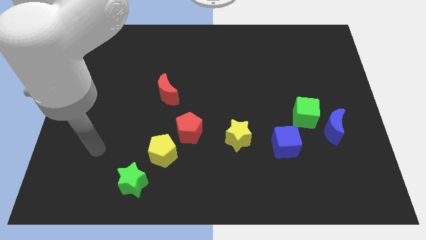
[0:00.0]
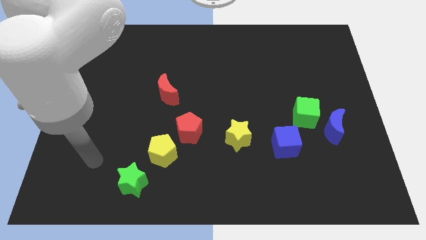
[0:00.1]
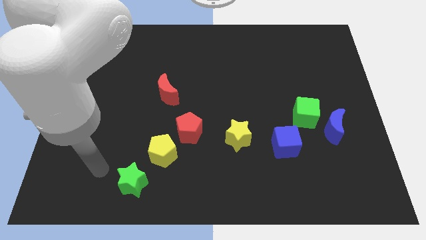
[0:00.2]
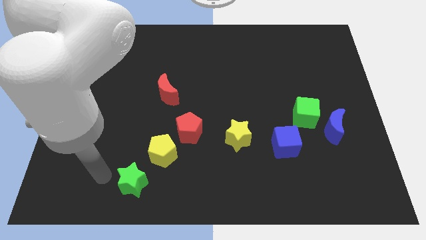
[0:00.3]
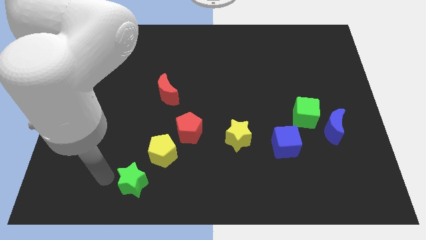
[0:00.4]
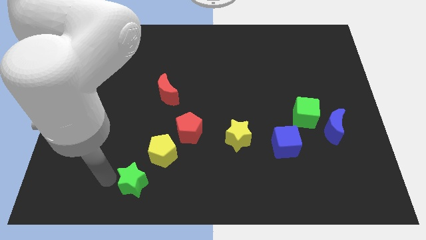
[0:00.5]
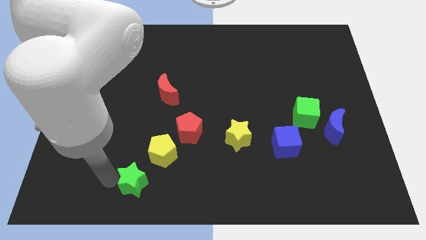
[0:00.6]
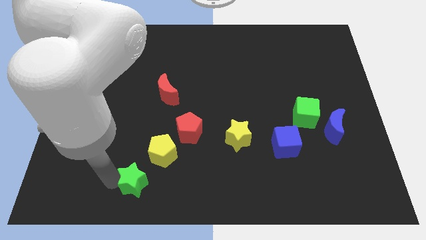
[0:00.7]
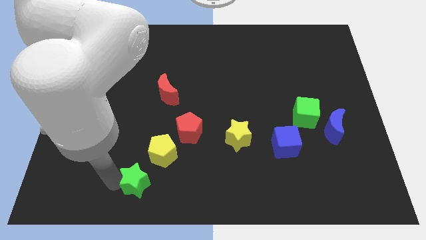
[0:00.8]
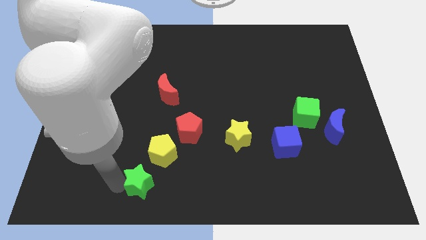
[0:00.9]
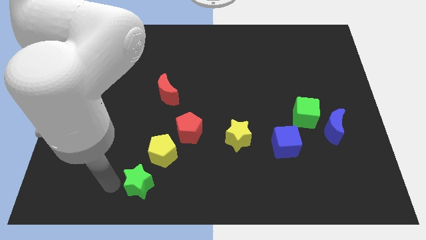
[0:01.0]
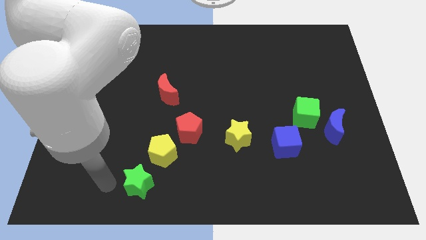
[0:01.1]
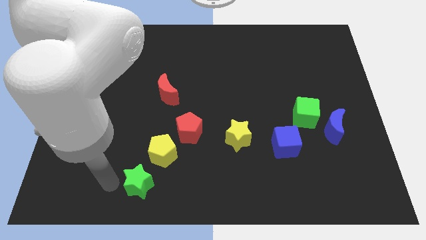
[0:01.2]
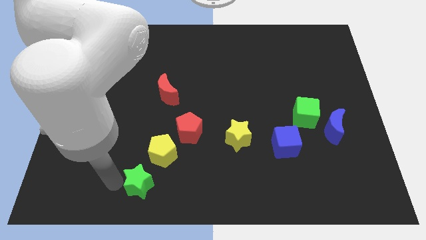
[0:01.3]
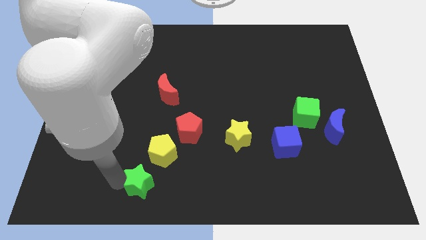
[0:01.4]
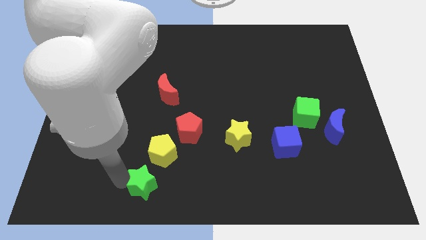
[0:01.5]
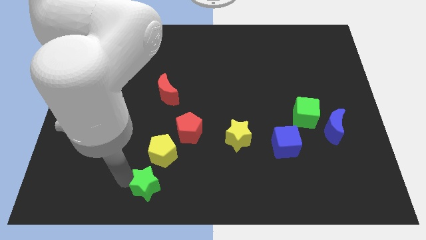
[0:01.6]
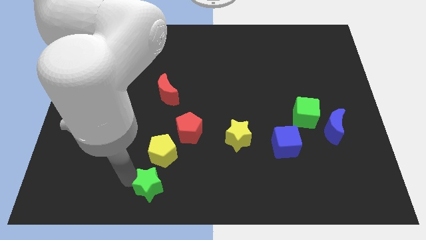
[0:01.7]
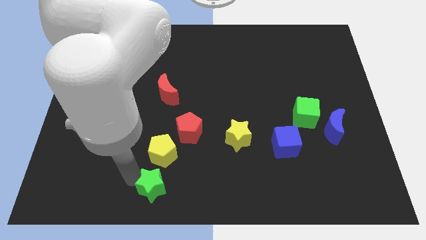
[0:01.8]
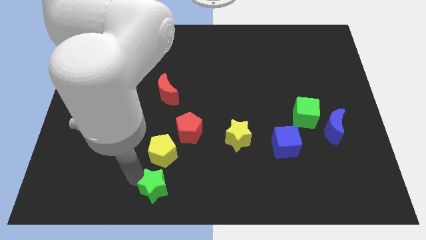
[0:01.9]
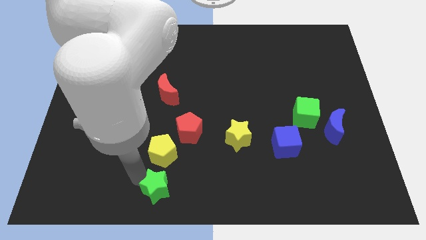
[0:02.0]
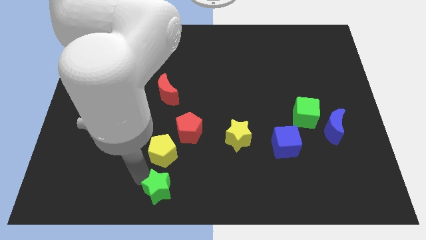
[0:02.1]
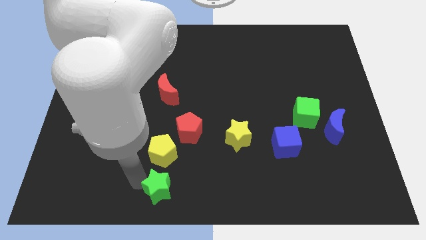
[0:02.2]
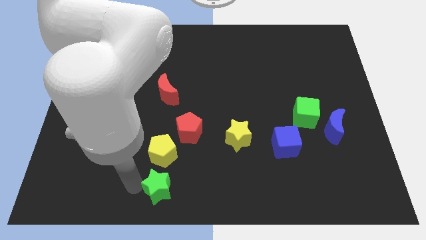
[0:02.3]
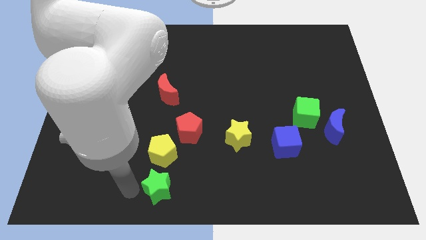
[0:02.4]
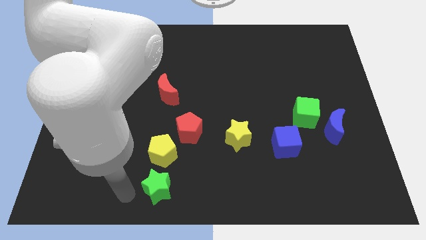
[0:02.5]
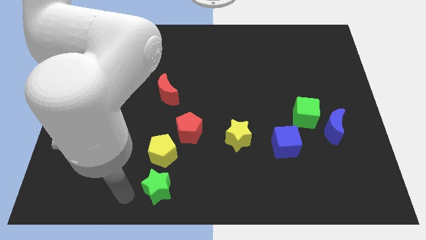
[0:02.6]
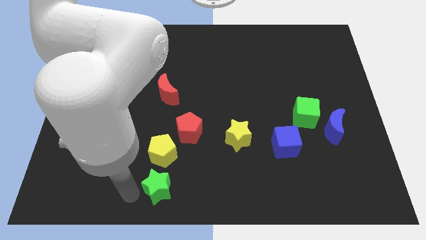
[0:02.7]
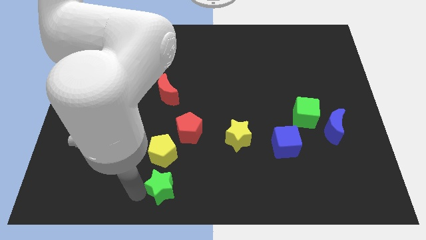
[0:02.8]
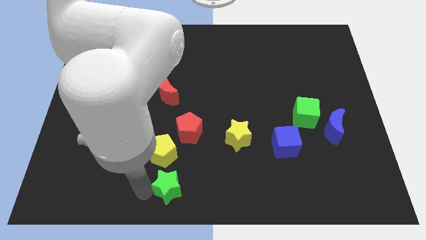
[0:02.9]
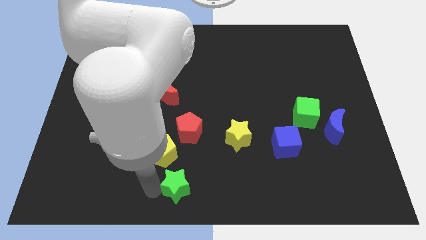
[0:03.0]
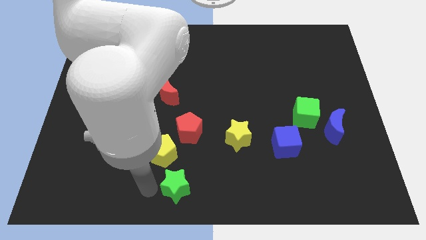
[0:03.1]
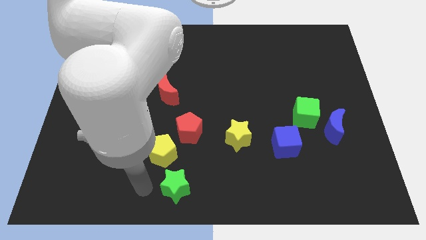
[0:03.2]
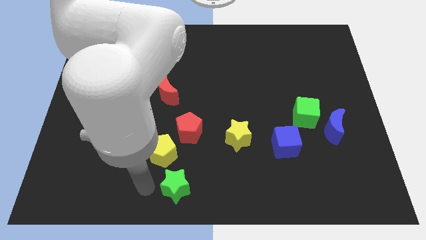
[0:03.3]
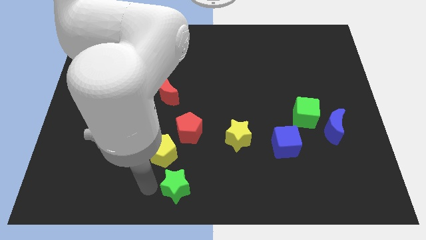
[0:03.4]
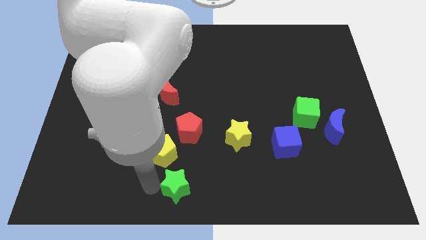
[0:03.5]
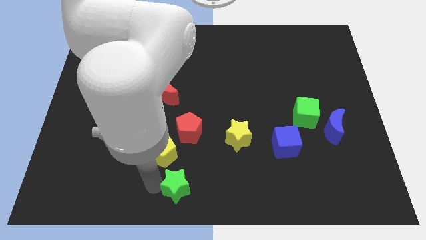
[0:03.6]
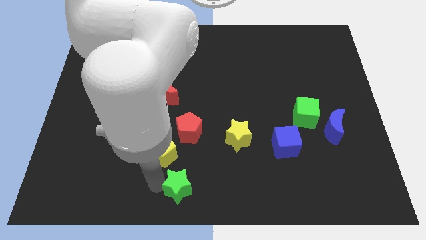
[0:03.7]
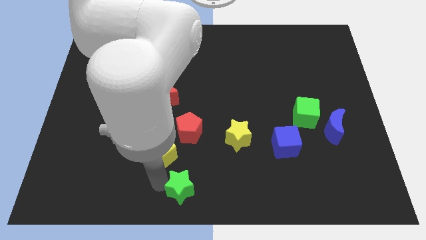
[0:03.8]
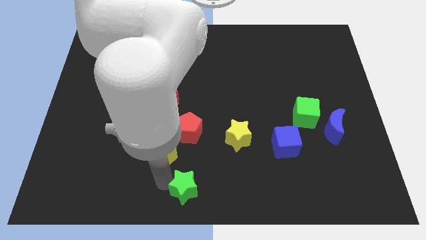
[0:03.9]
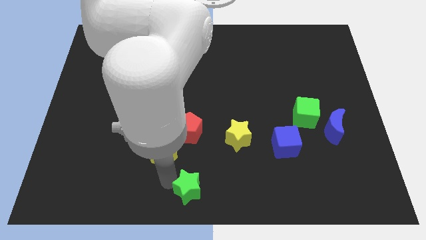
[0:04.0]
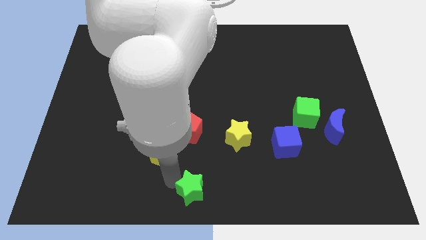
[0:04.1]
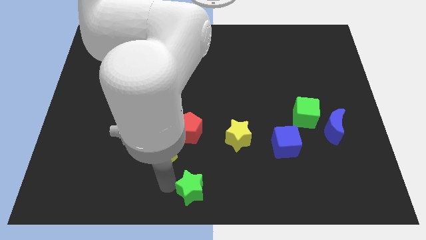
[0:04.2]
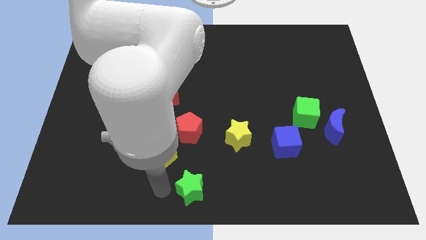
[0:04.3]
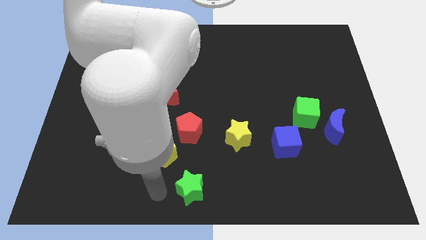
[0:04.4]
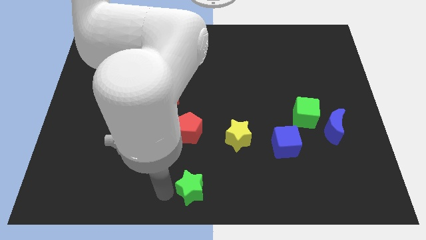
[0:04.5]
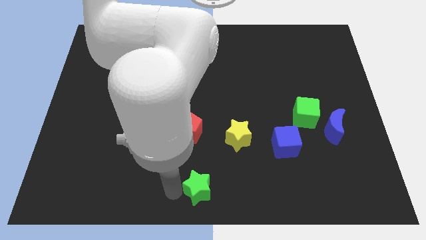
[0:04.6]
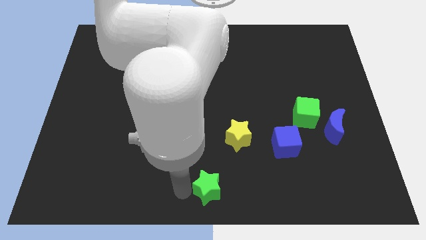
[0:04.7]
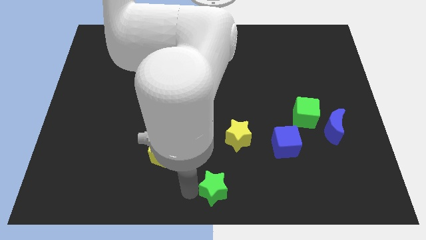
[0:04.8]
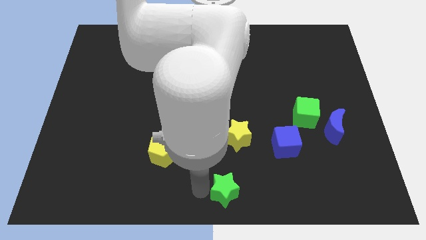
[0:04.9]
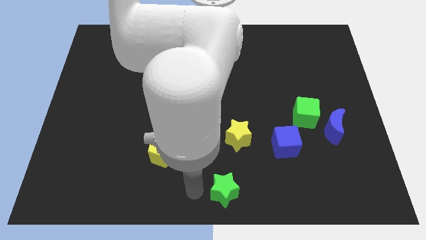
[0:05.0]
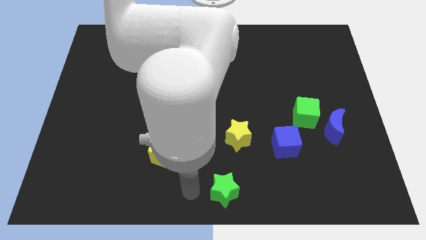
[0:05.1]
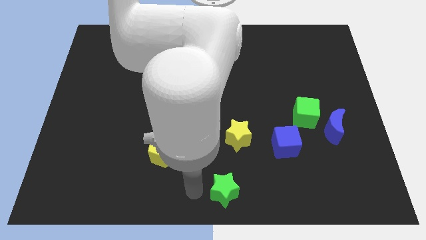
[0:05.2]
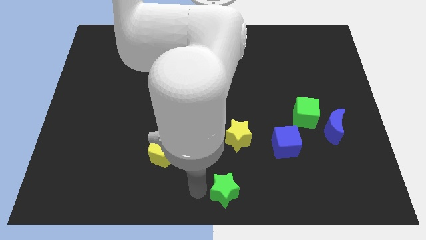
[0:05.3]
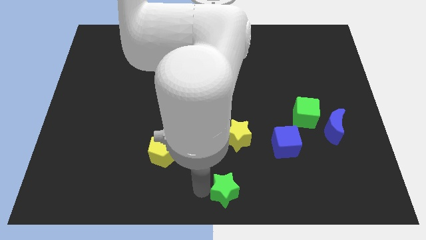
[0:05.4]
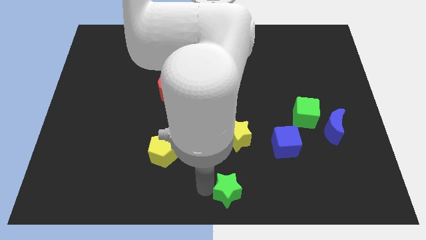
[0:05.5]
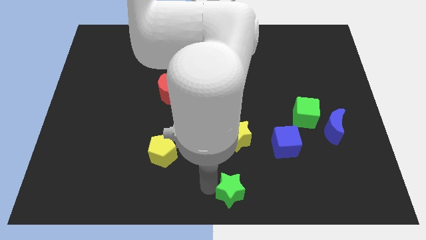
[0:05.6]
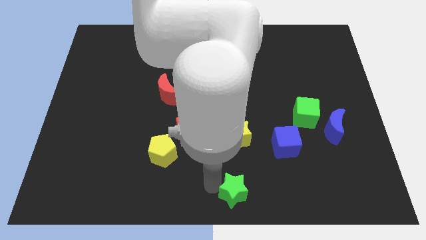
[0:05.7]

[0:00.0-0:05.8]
push the green star to the right

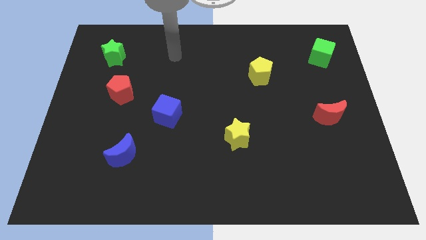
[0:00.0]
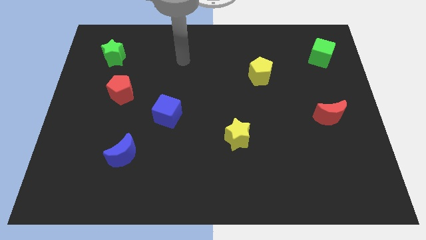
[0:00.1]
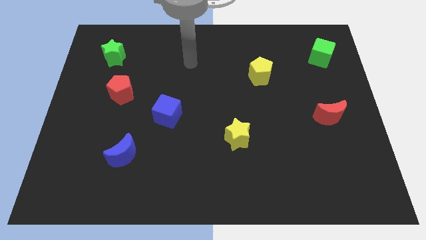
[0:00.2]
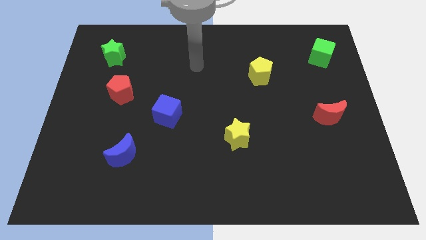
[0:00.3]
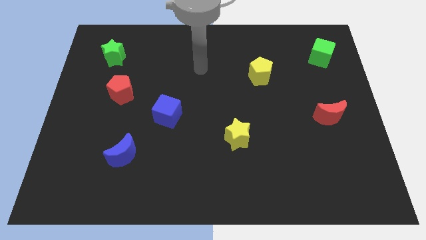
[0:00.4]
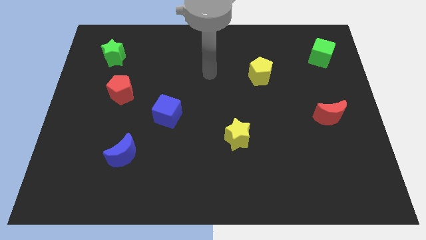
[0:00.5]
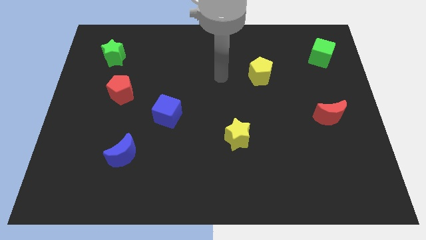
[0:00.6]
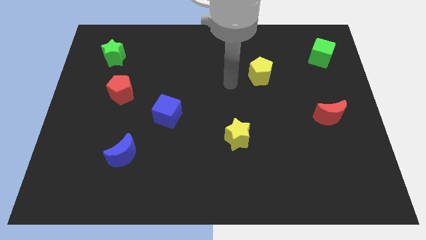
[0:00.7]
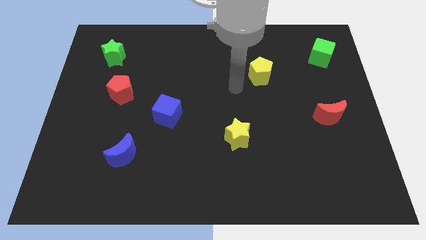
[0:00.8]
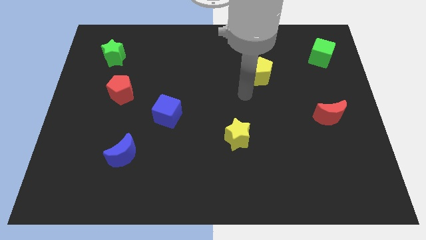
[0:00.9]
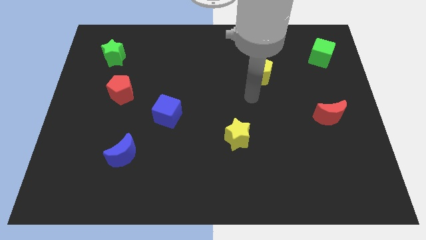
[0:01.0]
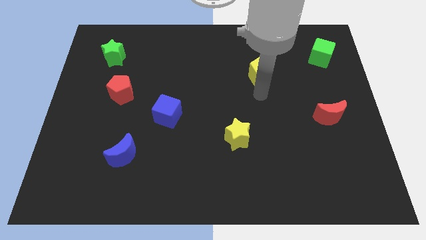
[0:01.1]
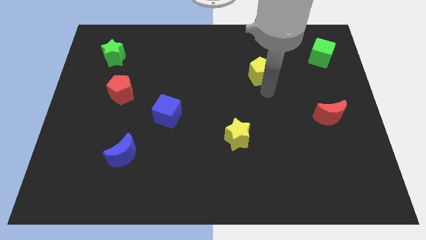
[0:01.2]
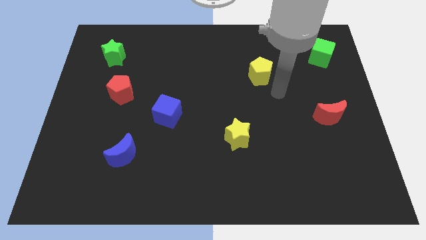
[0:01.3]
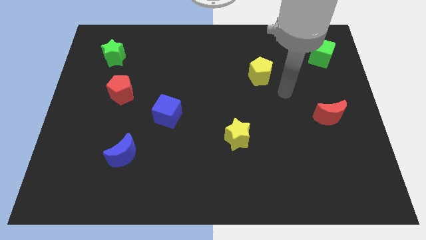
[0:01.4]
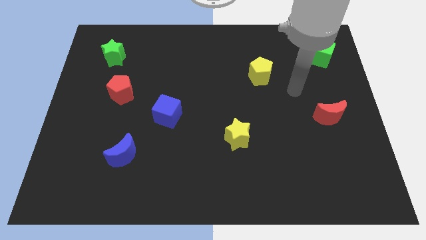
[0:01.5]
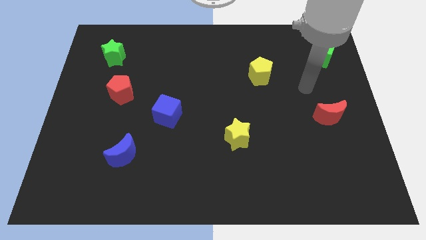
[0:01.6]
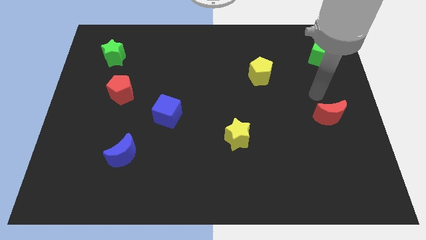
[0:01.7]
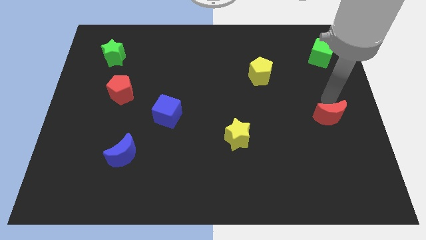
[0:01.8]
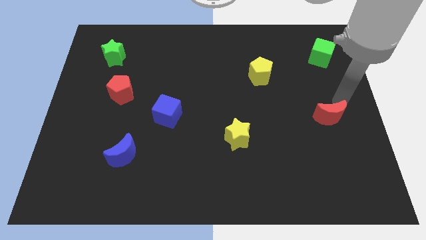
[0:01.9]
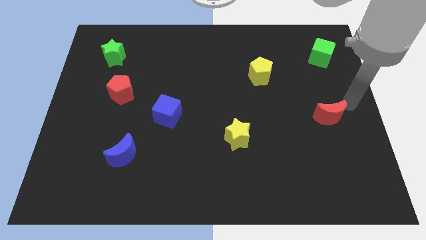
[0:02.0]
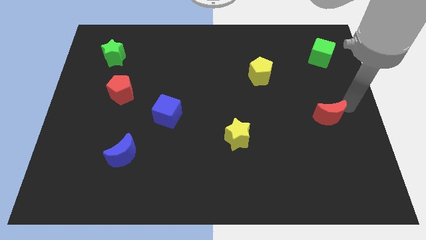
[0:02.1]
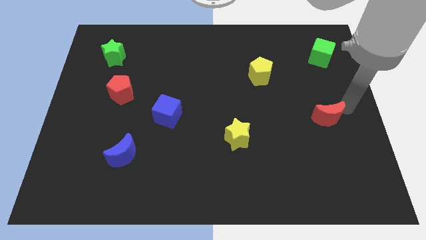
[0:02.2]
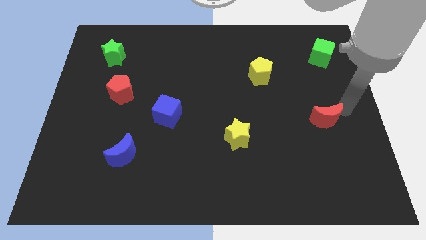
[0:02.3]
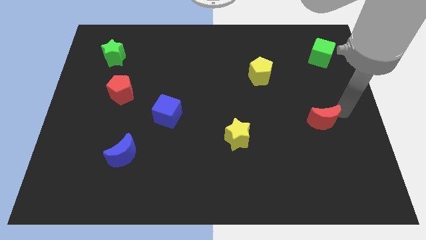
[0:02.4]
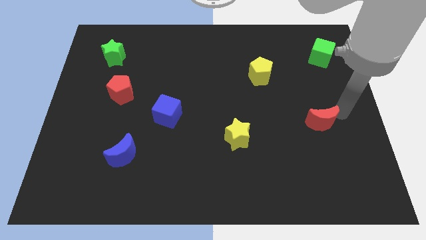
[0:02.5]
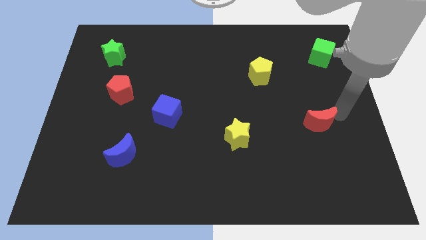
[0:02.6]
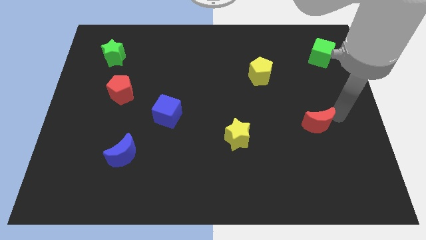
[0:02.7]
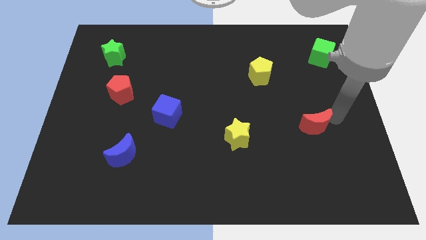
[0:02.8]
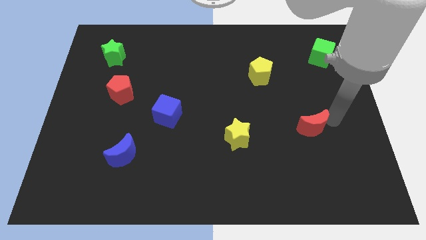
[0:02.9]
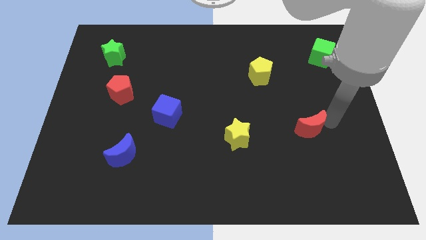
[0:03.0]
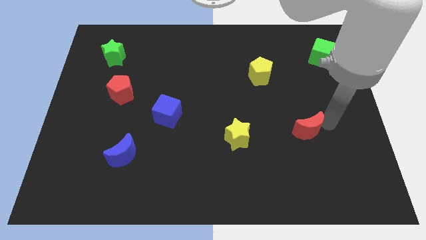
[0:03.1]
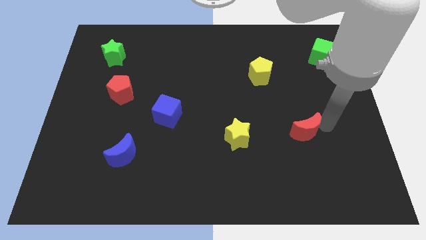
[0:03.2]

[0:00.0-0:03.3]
slightly push the red moon downwards and to the left diagonally
